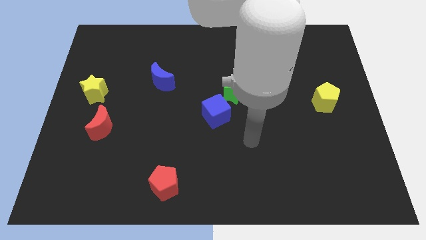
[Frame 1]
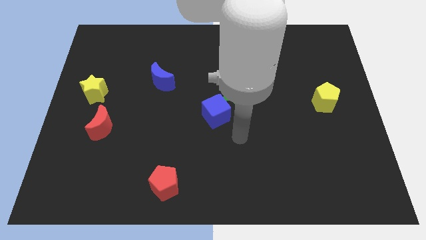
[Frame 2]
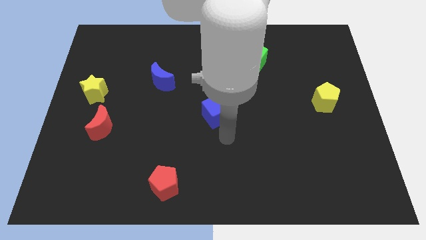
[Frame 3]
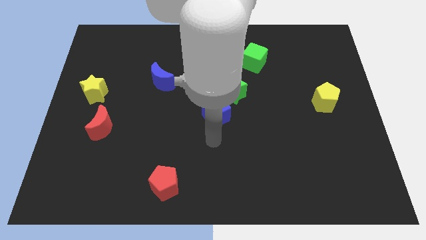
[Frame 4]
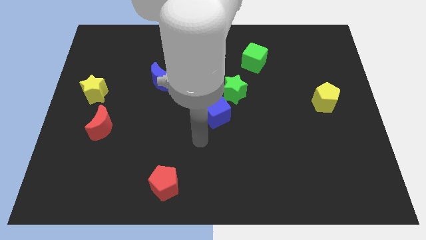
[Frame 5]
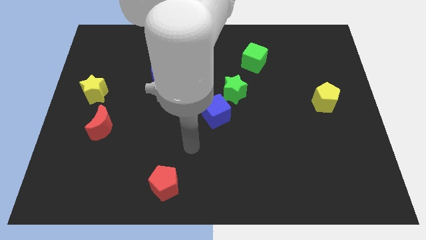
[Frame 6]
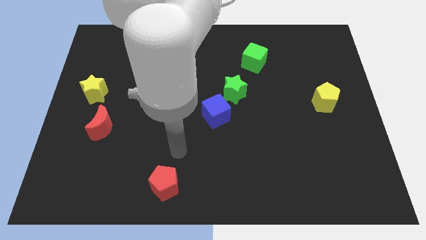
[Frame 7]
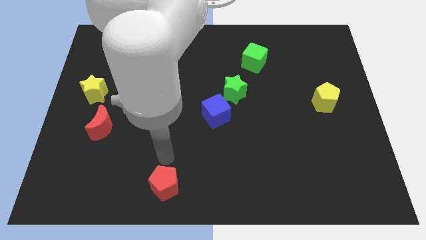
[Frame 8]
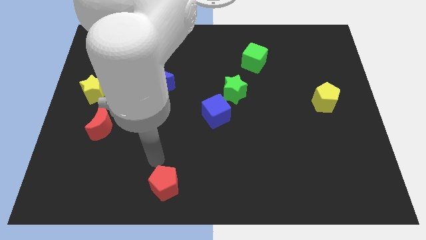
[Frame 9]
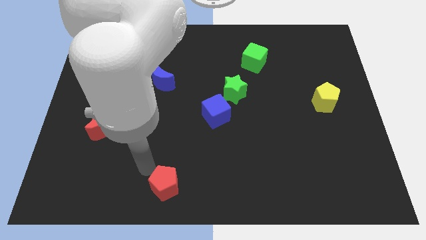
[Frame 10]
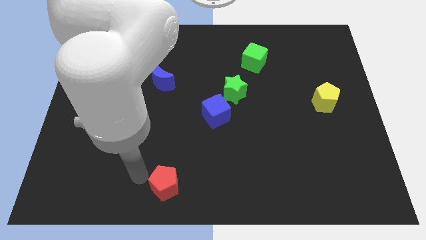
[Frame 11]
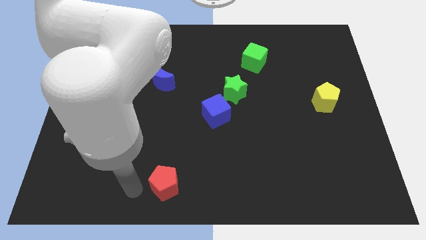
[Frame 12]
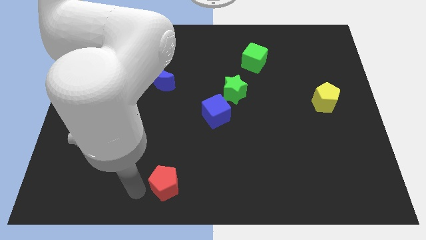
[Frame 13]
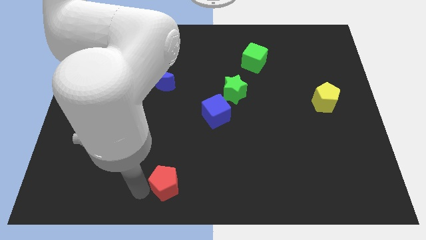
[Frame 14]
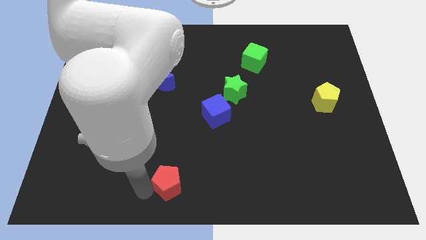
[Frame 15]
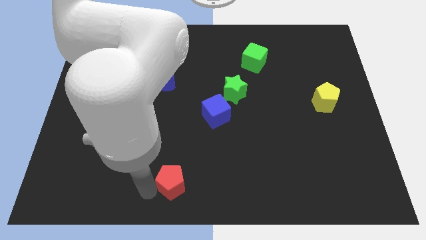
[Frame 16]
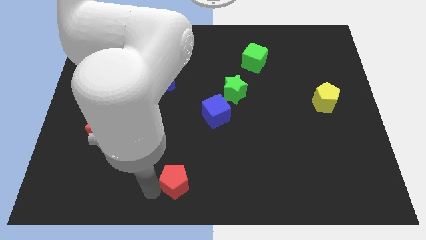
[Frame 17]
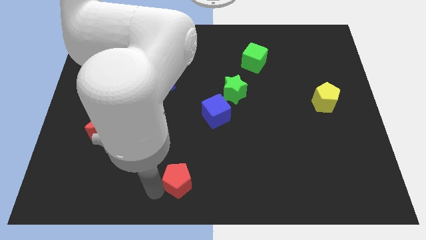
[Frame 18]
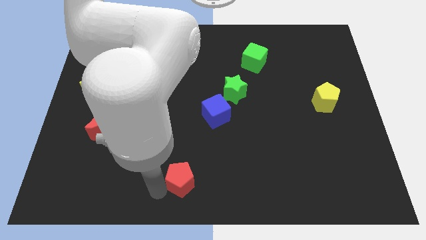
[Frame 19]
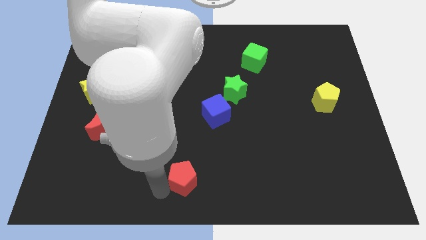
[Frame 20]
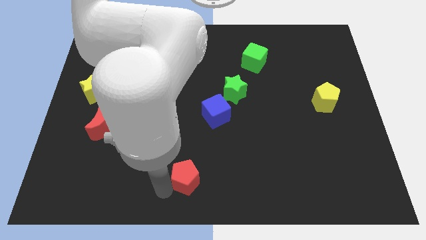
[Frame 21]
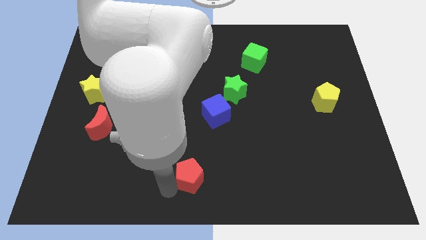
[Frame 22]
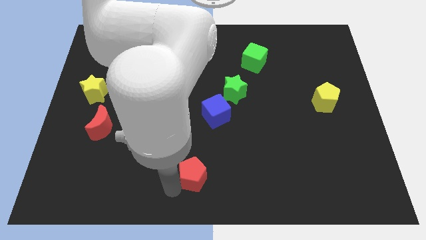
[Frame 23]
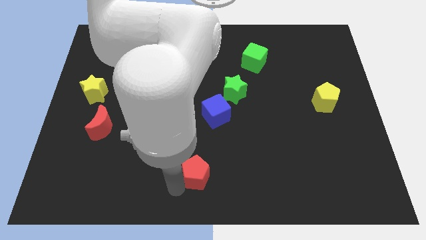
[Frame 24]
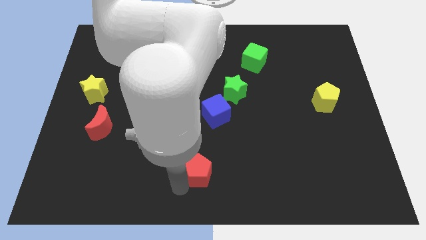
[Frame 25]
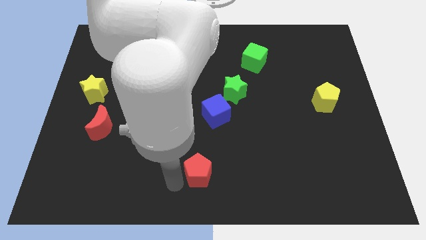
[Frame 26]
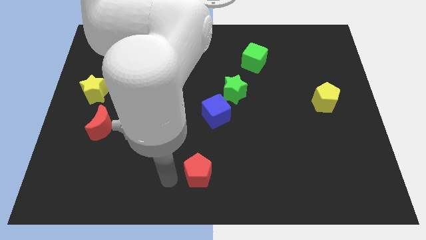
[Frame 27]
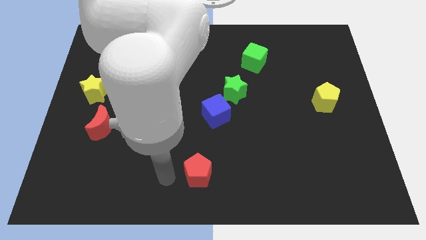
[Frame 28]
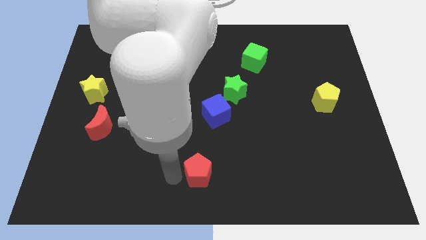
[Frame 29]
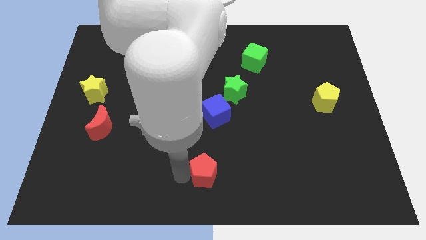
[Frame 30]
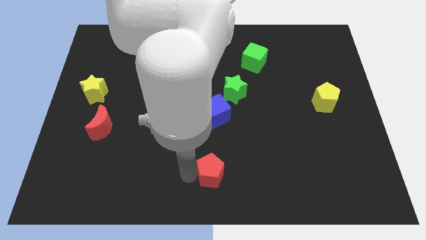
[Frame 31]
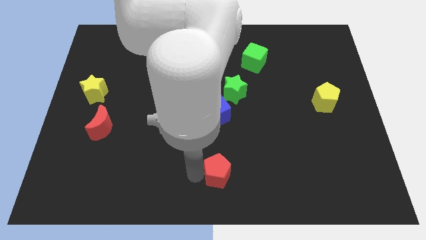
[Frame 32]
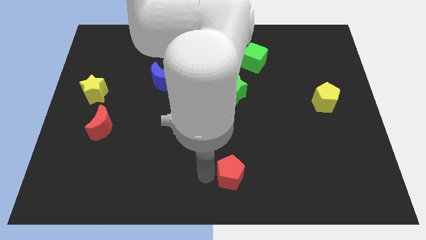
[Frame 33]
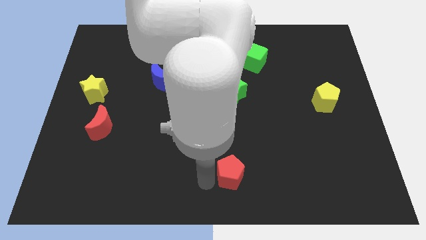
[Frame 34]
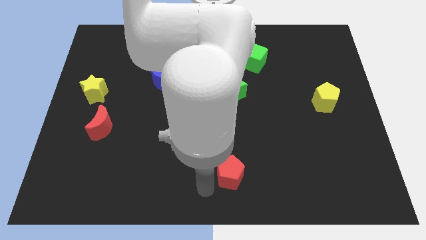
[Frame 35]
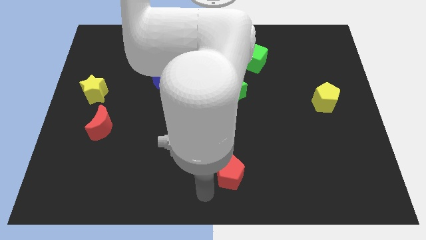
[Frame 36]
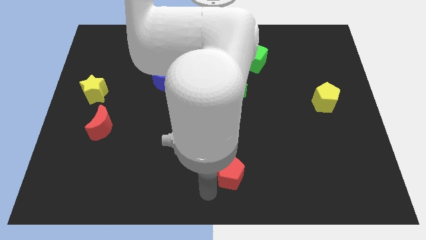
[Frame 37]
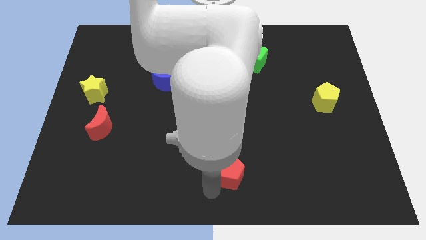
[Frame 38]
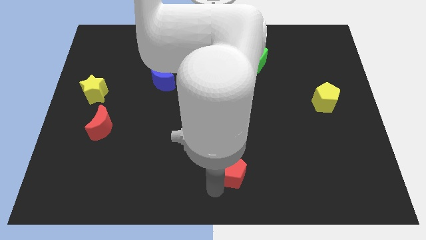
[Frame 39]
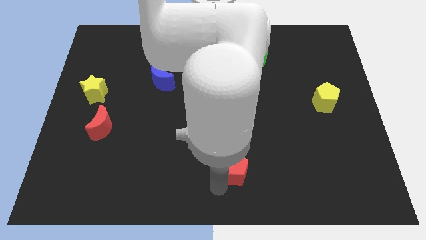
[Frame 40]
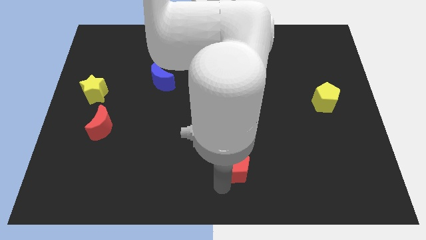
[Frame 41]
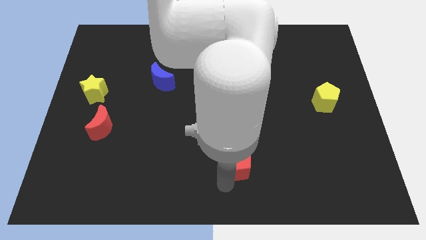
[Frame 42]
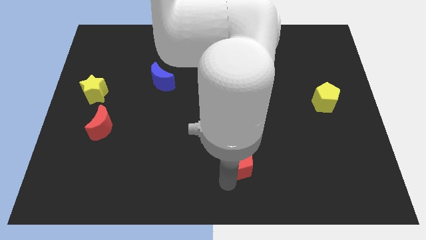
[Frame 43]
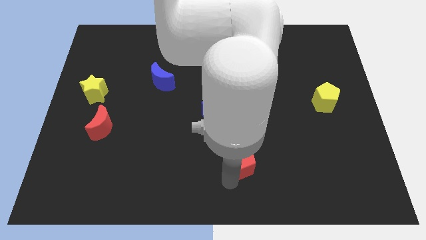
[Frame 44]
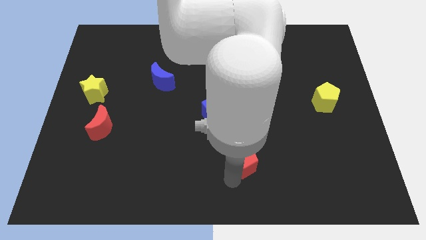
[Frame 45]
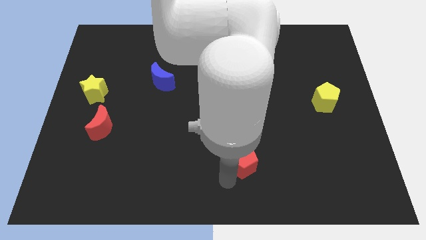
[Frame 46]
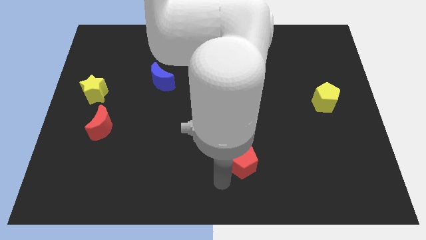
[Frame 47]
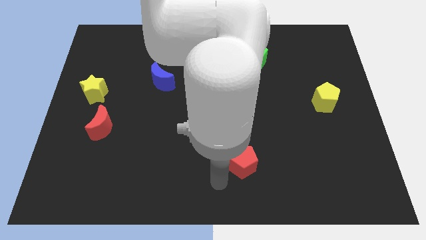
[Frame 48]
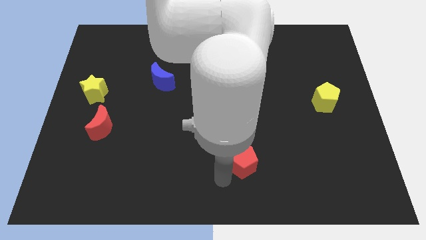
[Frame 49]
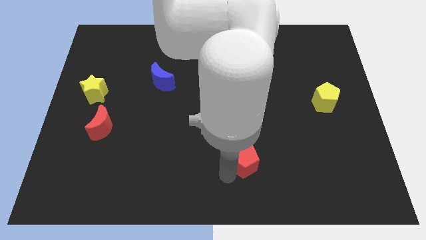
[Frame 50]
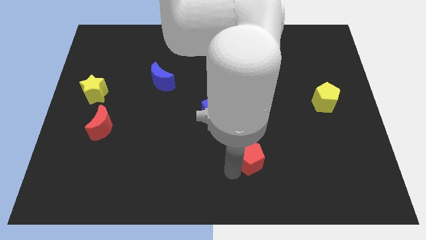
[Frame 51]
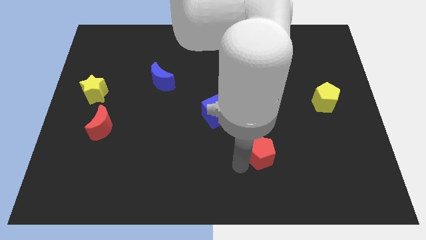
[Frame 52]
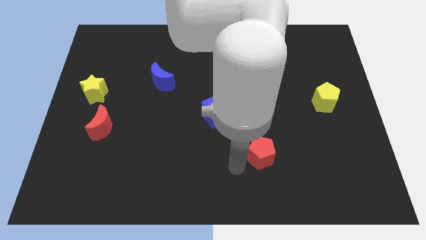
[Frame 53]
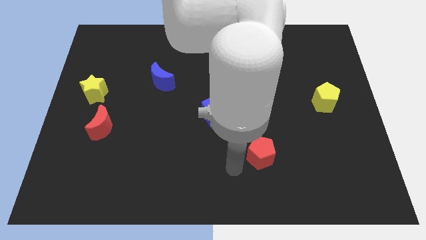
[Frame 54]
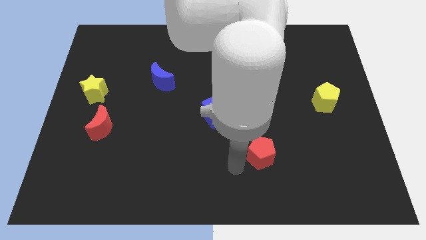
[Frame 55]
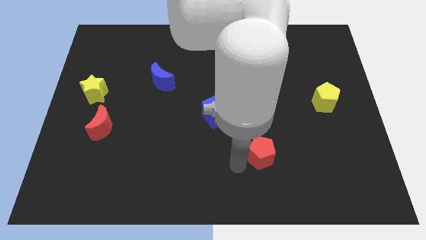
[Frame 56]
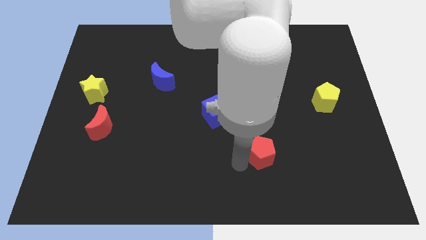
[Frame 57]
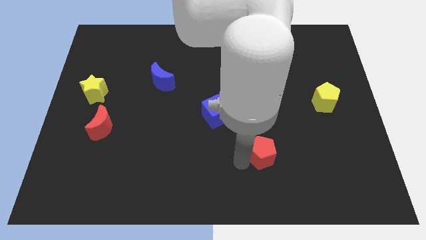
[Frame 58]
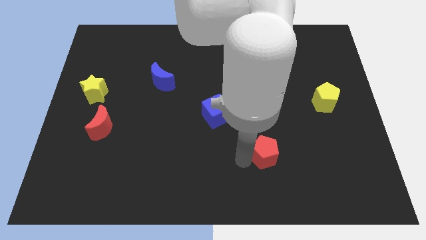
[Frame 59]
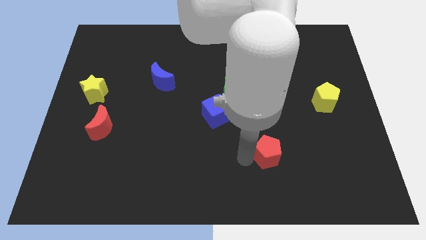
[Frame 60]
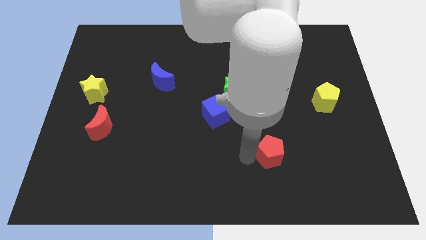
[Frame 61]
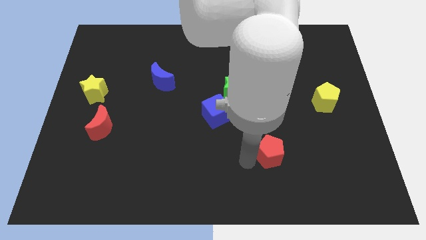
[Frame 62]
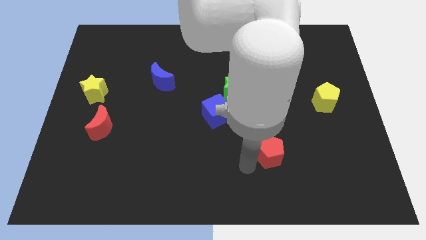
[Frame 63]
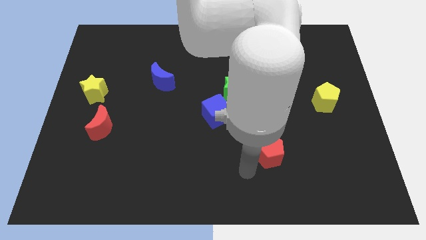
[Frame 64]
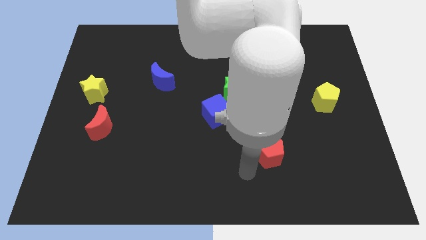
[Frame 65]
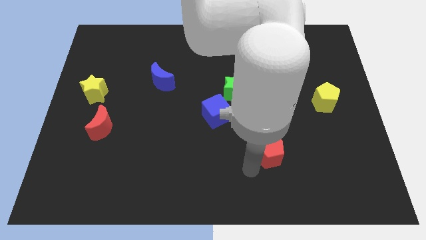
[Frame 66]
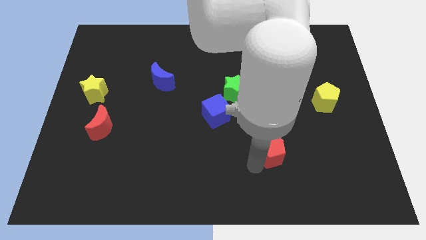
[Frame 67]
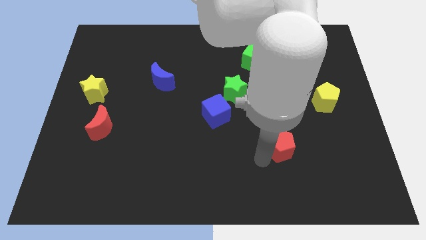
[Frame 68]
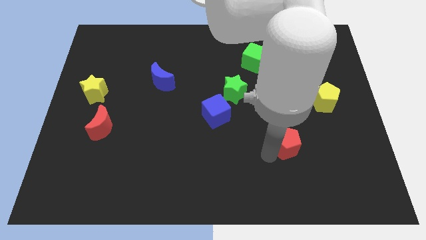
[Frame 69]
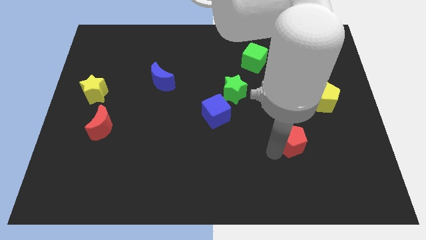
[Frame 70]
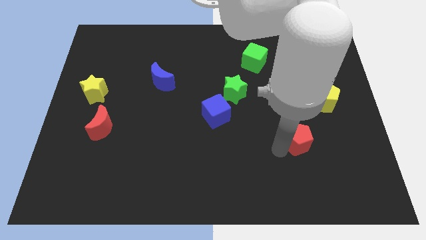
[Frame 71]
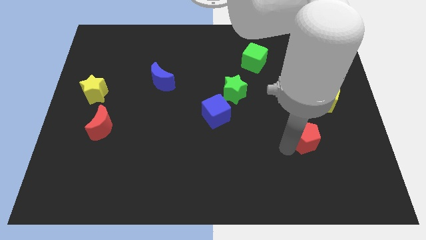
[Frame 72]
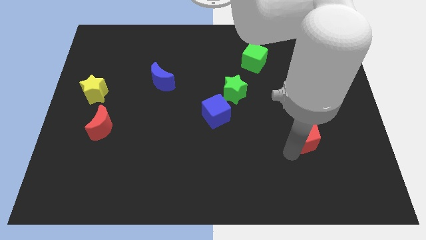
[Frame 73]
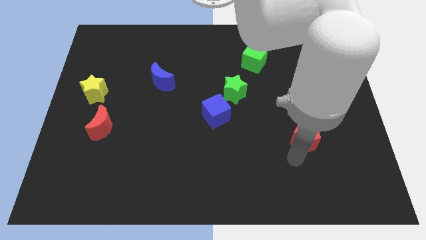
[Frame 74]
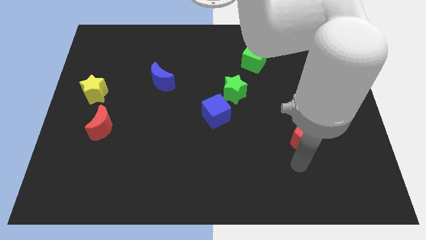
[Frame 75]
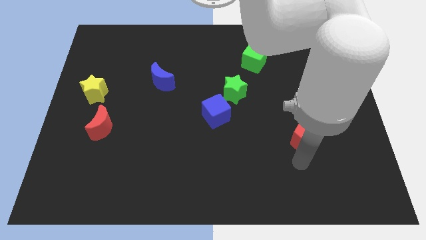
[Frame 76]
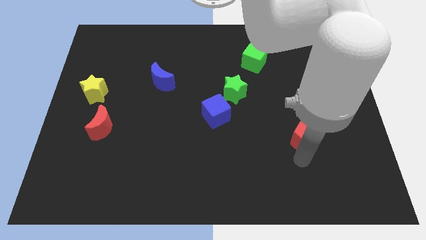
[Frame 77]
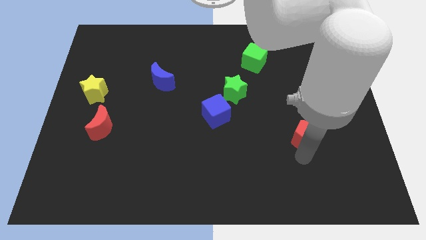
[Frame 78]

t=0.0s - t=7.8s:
push the red pentagon to the bottom left of the yellow pentagon
